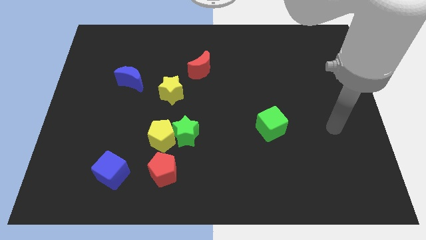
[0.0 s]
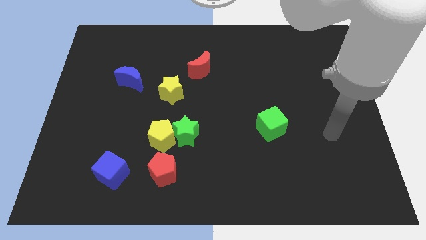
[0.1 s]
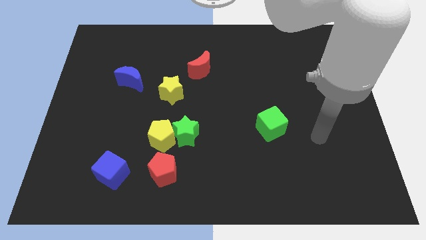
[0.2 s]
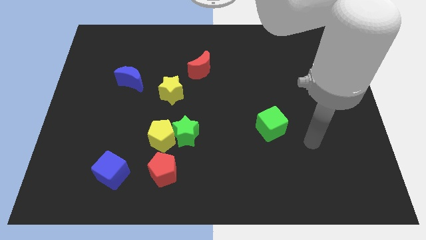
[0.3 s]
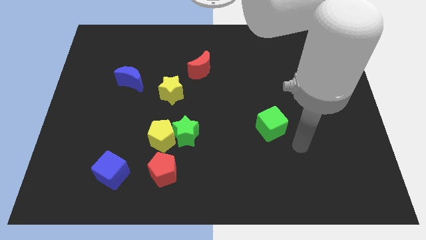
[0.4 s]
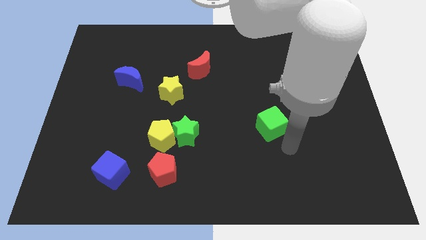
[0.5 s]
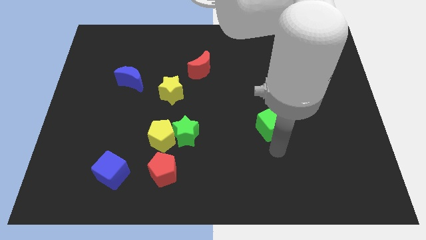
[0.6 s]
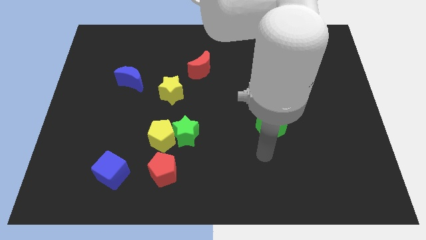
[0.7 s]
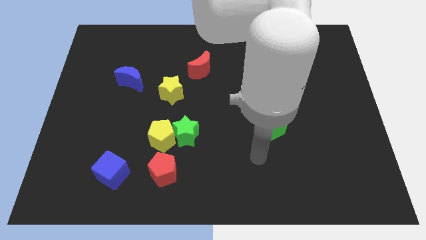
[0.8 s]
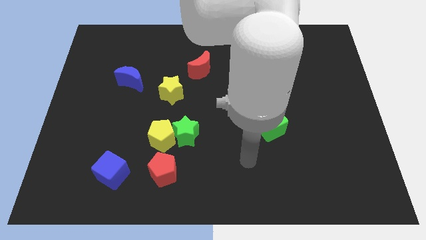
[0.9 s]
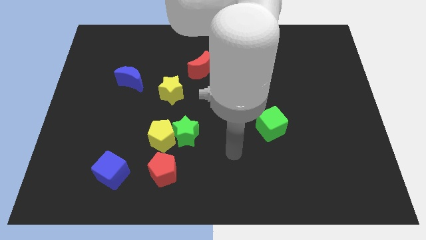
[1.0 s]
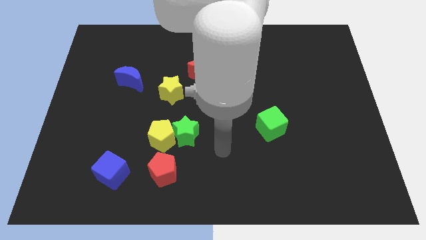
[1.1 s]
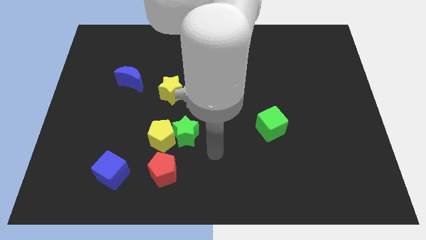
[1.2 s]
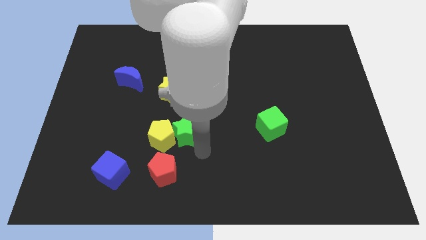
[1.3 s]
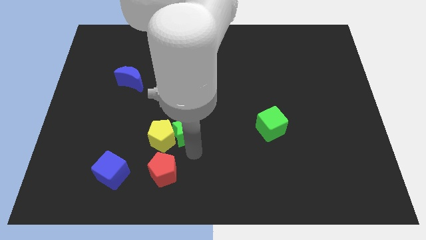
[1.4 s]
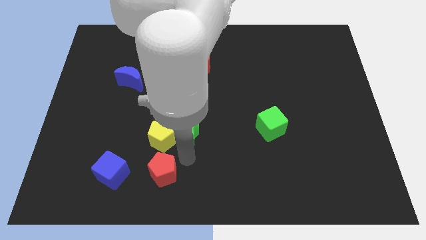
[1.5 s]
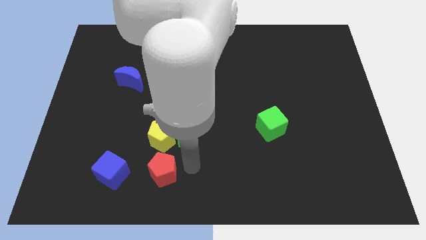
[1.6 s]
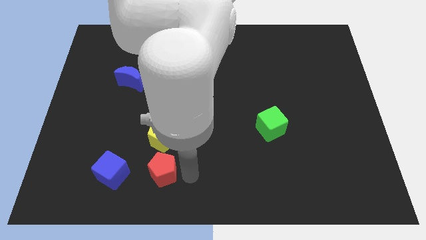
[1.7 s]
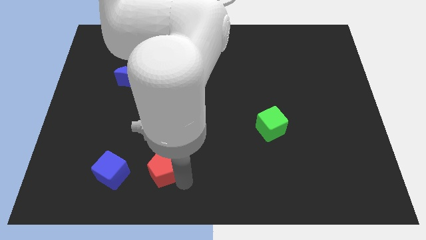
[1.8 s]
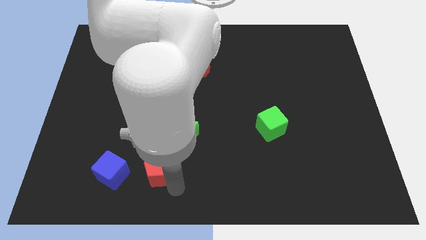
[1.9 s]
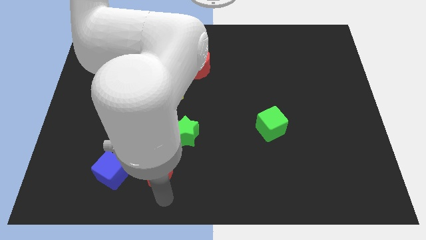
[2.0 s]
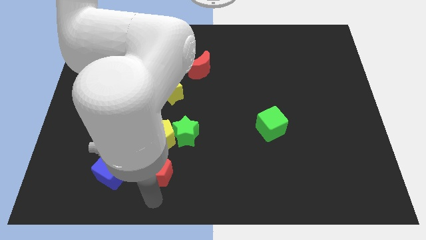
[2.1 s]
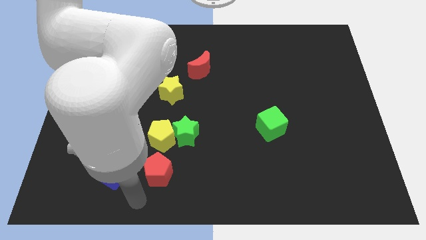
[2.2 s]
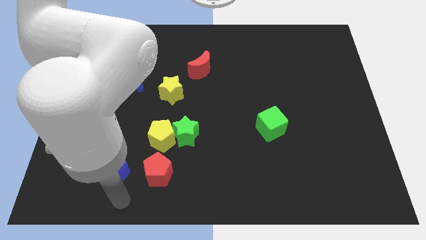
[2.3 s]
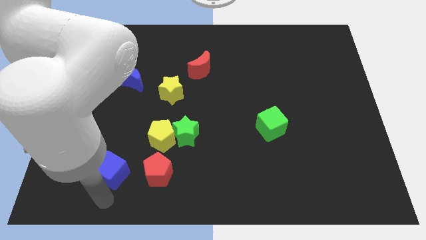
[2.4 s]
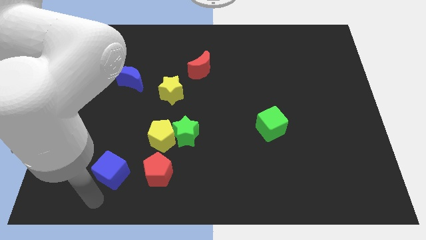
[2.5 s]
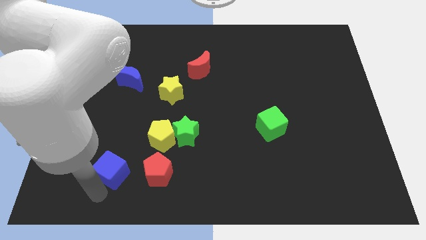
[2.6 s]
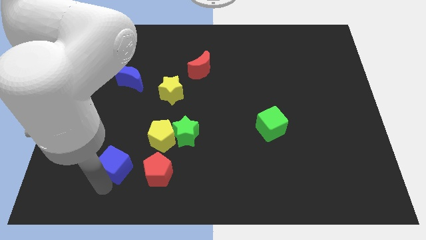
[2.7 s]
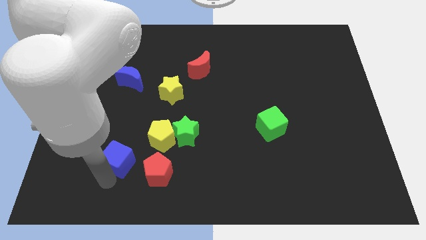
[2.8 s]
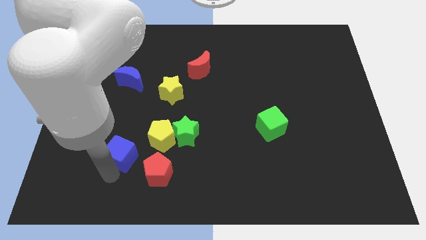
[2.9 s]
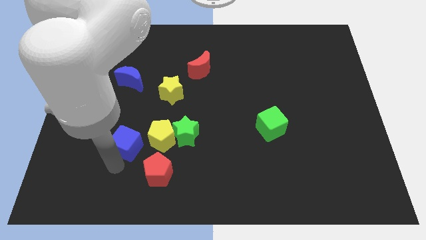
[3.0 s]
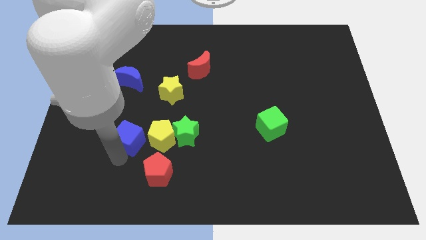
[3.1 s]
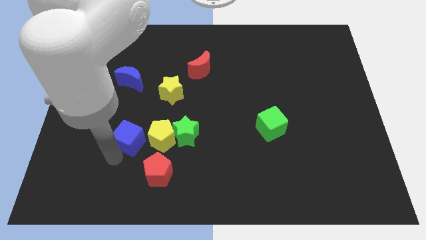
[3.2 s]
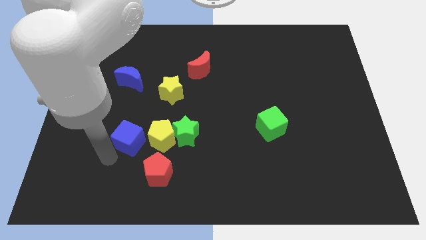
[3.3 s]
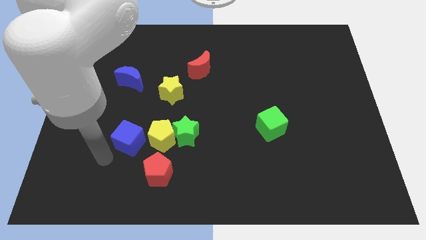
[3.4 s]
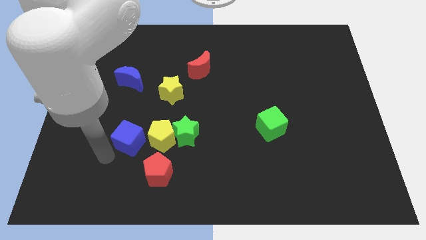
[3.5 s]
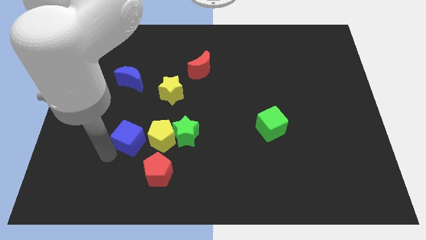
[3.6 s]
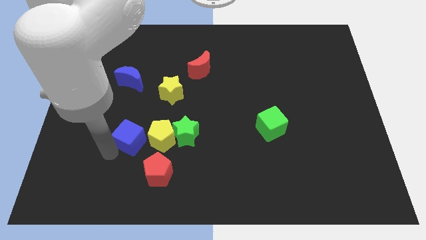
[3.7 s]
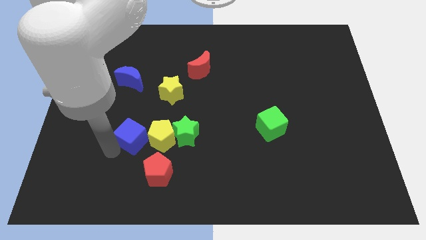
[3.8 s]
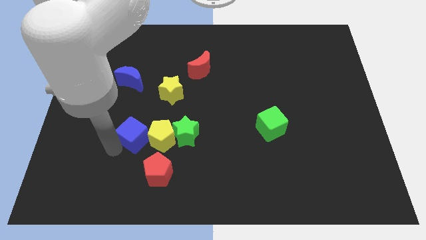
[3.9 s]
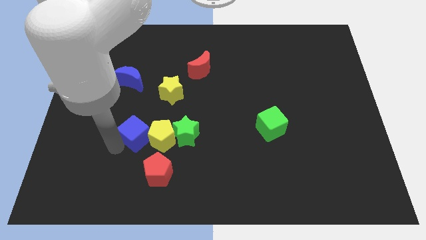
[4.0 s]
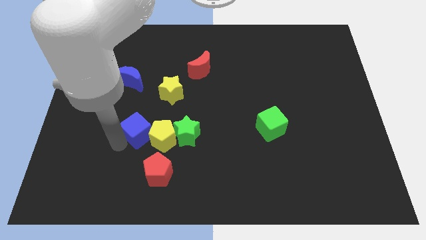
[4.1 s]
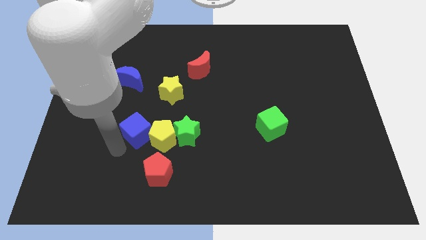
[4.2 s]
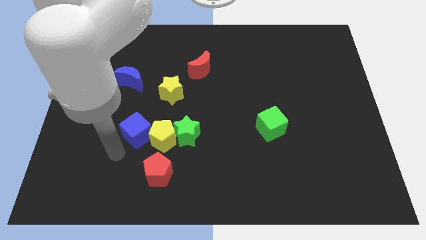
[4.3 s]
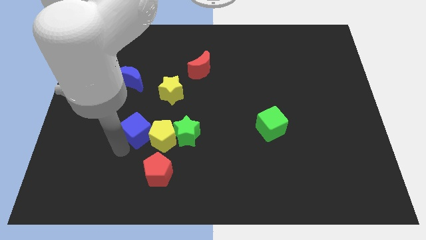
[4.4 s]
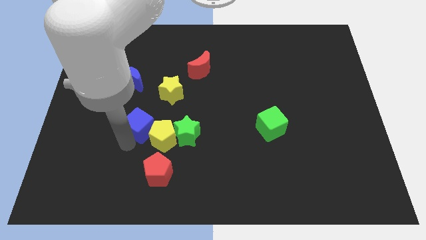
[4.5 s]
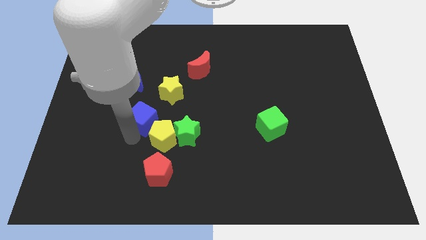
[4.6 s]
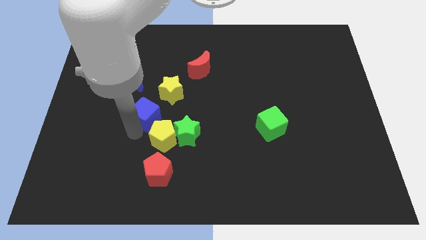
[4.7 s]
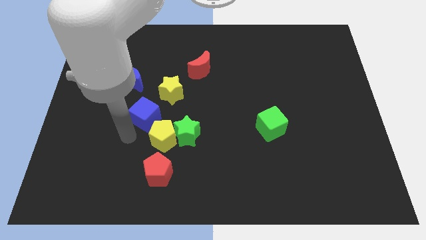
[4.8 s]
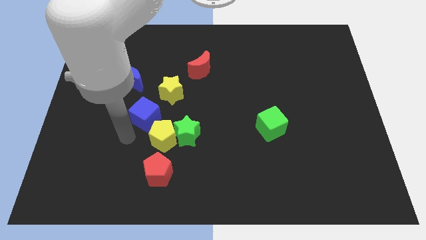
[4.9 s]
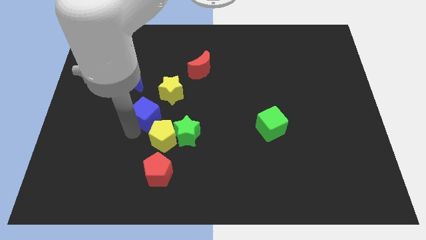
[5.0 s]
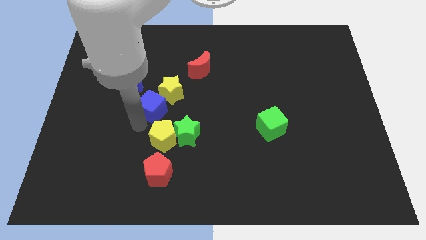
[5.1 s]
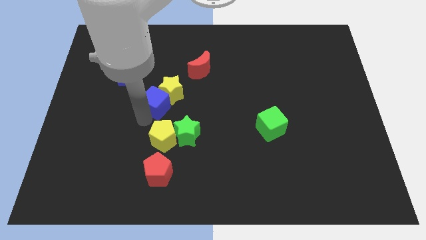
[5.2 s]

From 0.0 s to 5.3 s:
move the blue cube to the yellow star

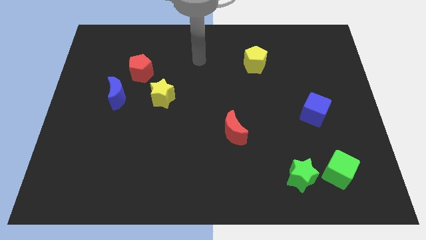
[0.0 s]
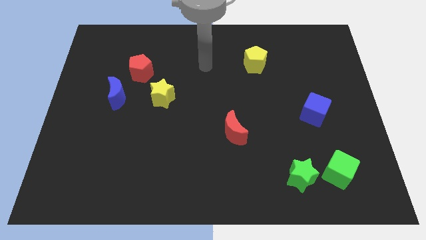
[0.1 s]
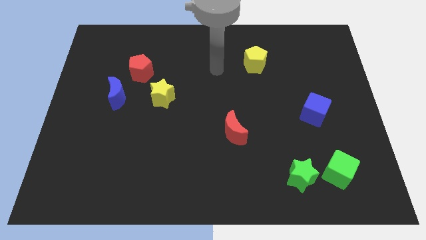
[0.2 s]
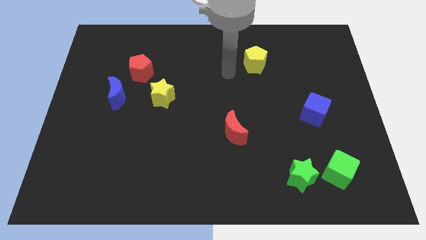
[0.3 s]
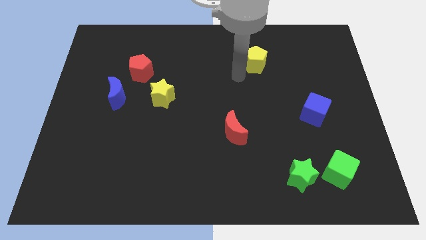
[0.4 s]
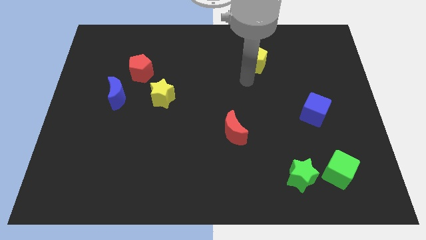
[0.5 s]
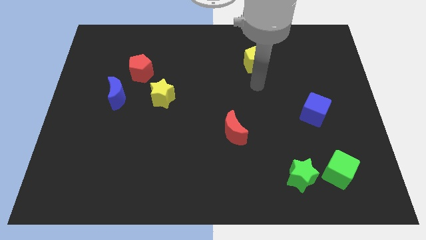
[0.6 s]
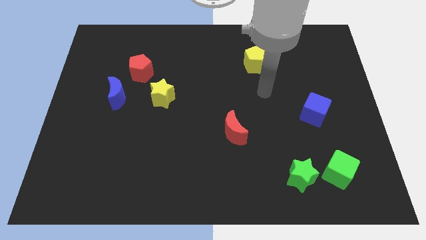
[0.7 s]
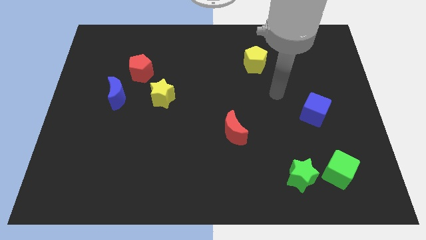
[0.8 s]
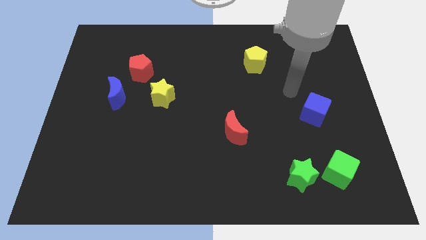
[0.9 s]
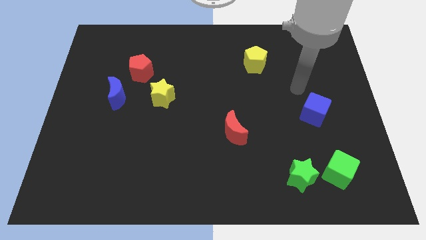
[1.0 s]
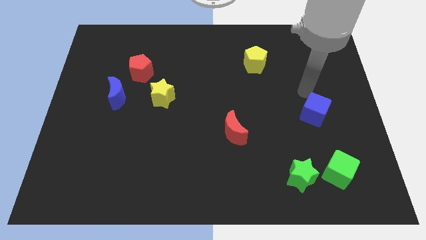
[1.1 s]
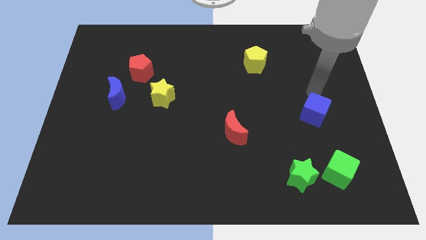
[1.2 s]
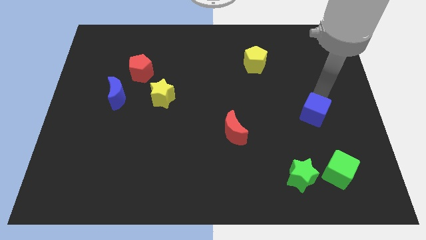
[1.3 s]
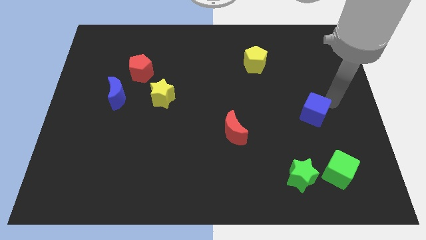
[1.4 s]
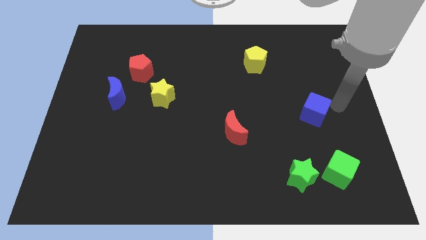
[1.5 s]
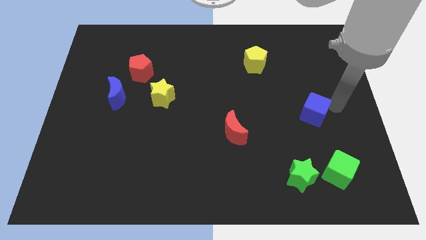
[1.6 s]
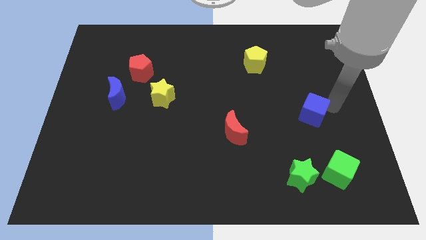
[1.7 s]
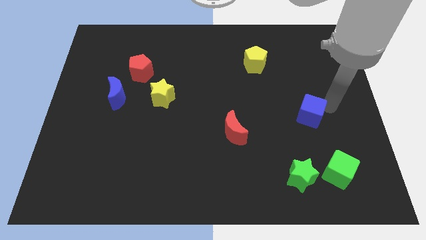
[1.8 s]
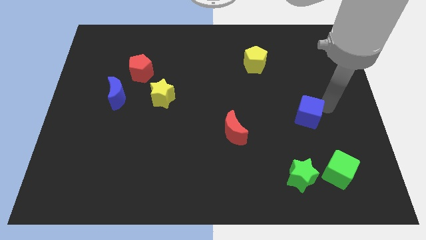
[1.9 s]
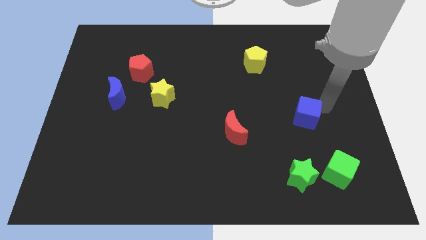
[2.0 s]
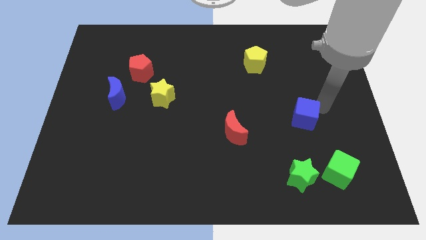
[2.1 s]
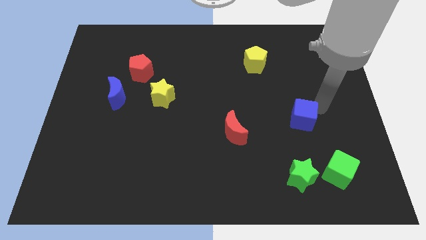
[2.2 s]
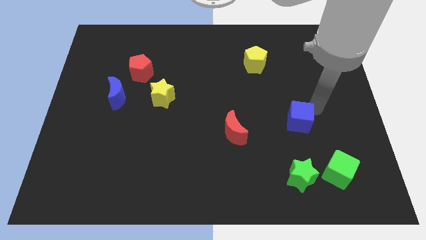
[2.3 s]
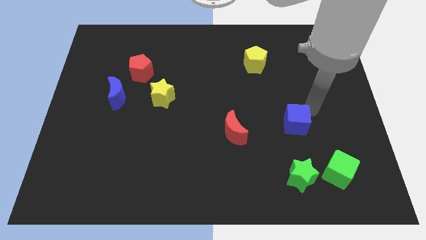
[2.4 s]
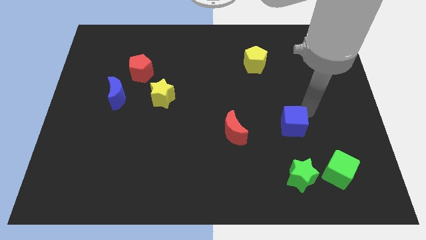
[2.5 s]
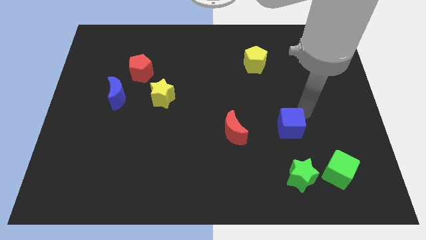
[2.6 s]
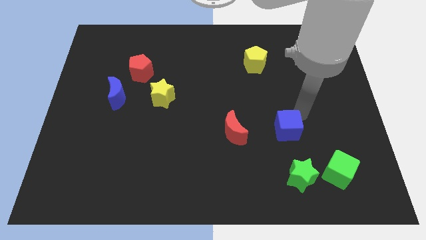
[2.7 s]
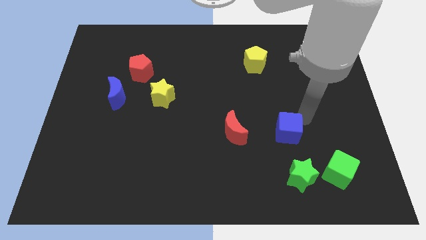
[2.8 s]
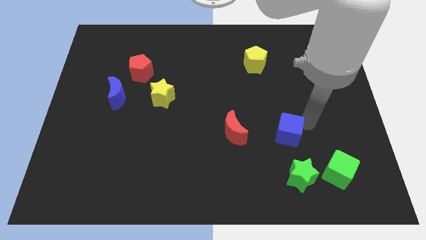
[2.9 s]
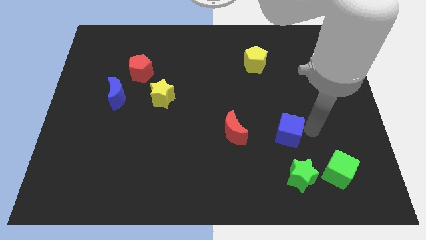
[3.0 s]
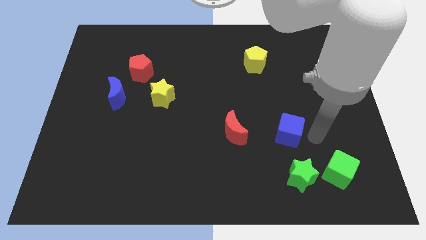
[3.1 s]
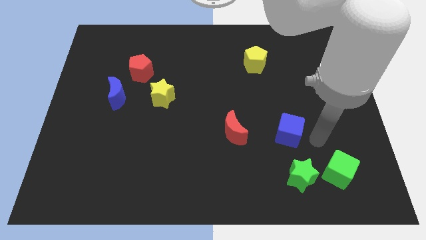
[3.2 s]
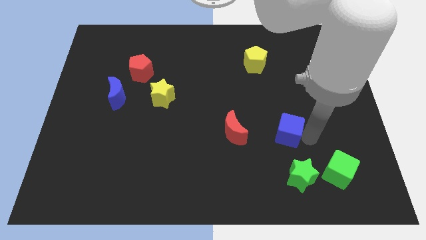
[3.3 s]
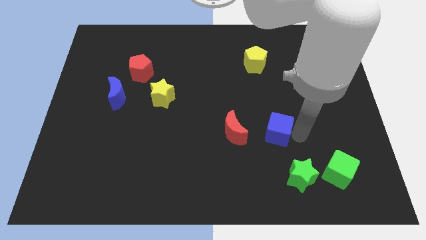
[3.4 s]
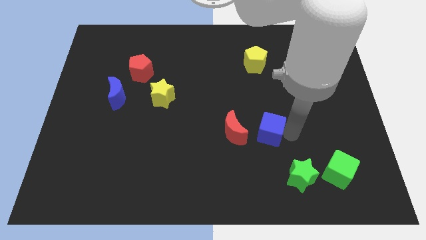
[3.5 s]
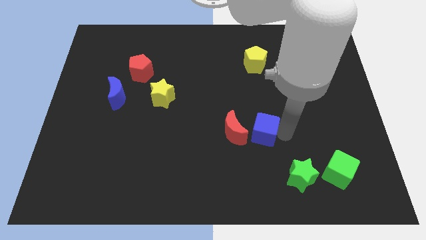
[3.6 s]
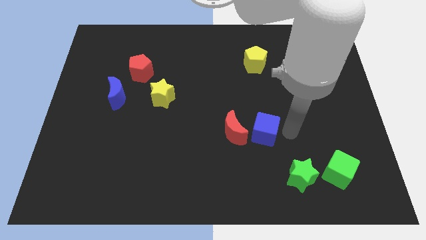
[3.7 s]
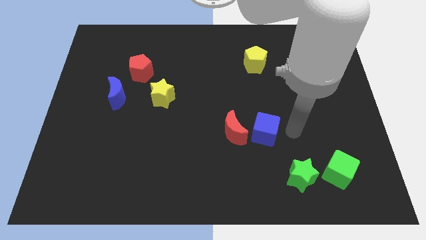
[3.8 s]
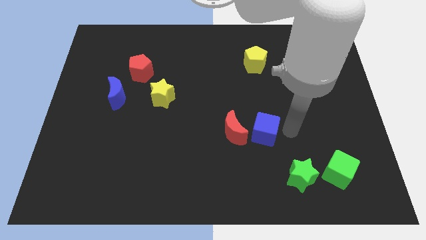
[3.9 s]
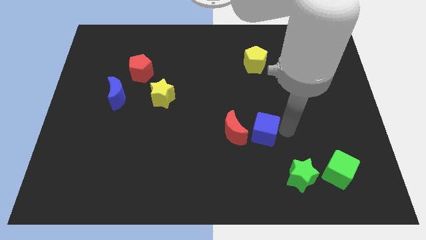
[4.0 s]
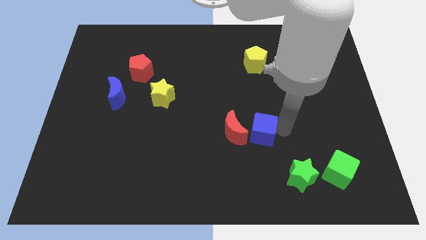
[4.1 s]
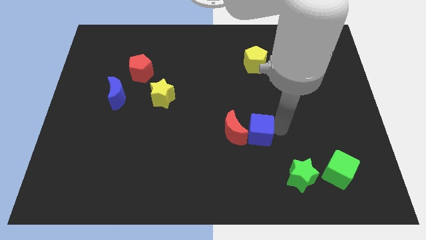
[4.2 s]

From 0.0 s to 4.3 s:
put the blue cube to the red moon
